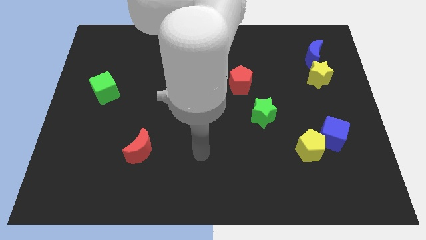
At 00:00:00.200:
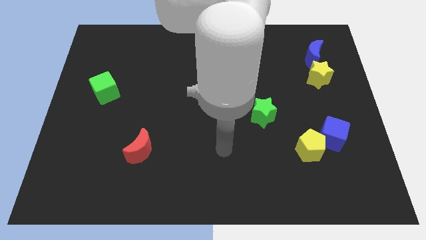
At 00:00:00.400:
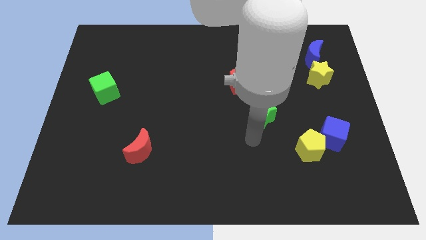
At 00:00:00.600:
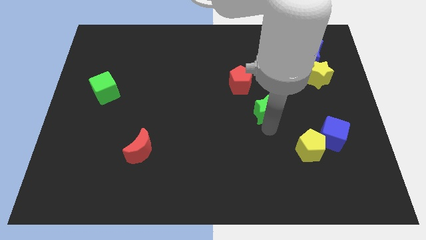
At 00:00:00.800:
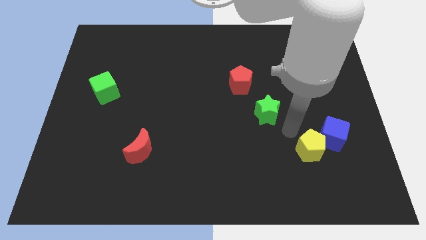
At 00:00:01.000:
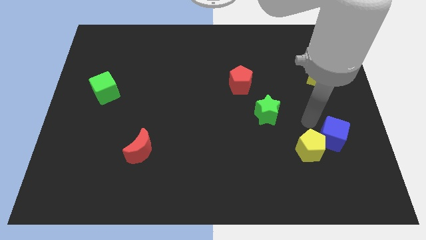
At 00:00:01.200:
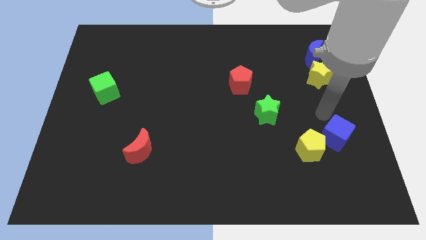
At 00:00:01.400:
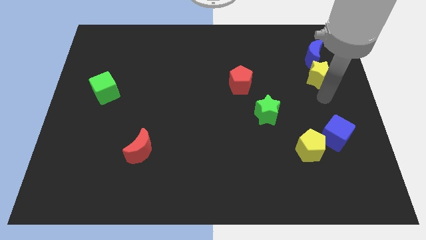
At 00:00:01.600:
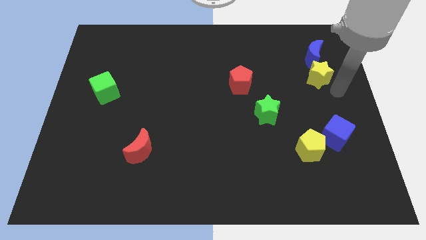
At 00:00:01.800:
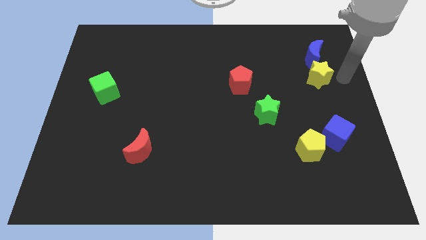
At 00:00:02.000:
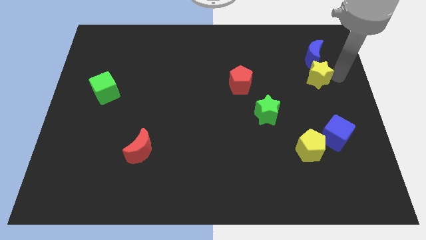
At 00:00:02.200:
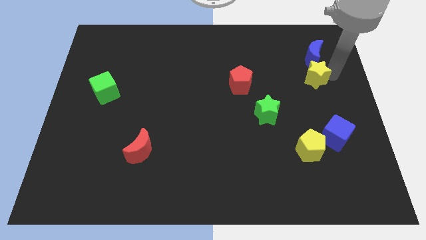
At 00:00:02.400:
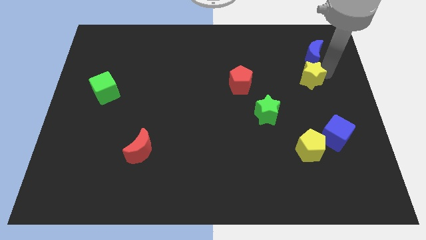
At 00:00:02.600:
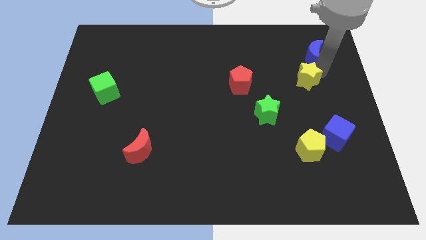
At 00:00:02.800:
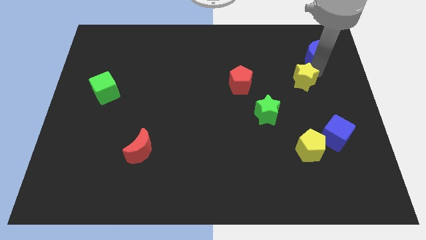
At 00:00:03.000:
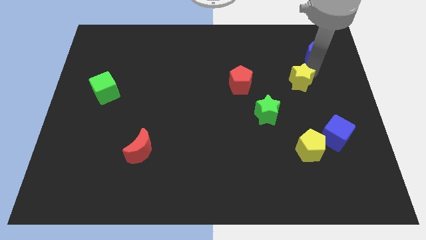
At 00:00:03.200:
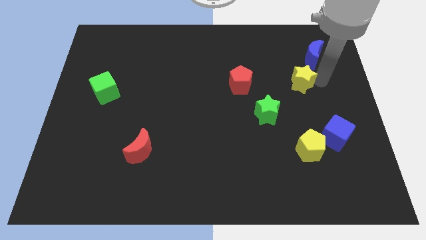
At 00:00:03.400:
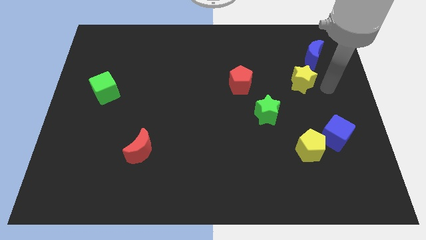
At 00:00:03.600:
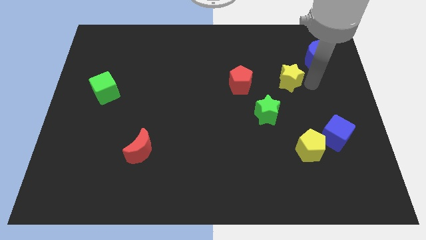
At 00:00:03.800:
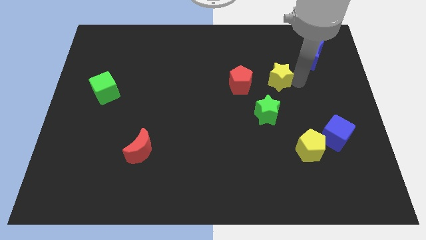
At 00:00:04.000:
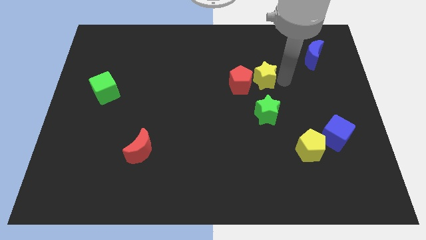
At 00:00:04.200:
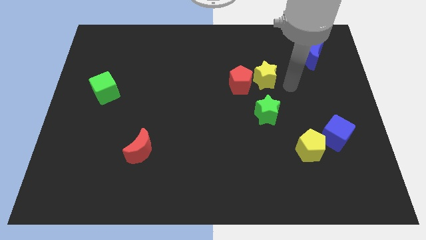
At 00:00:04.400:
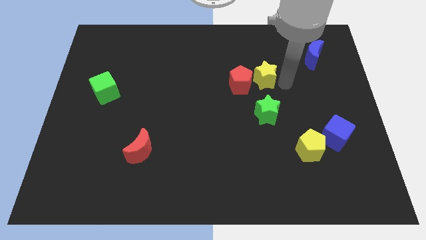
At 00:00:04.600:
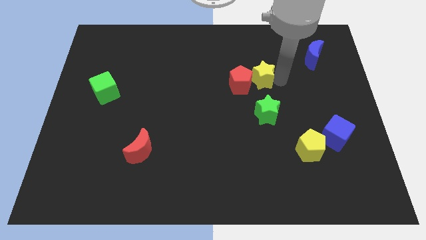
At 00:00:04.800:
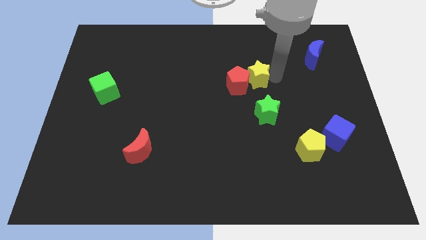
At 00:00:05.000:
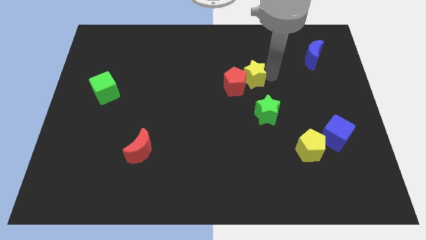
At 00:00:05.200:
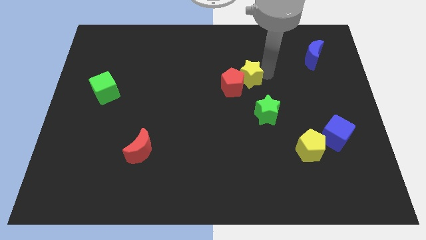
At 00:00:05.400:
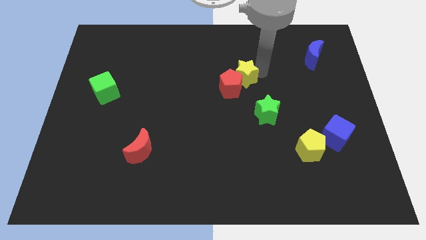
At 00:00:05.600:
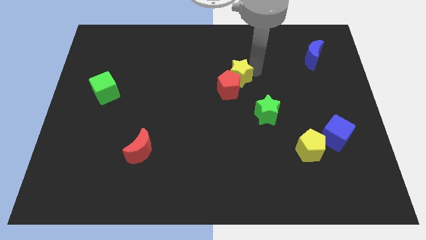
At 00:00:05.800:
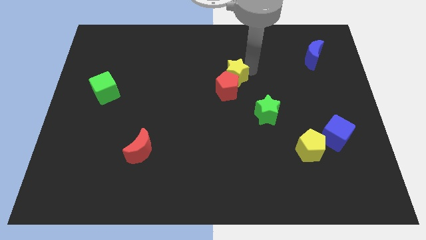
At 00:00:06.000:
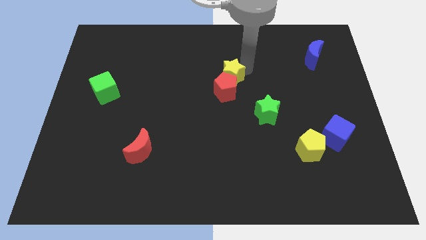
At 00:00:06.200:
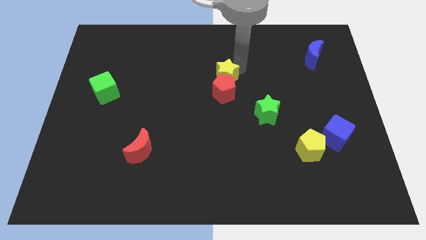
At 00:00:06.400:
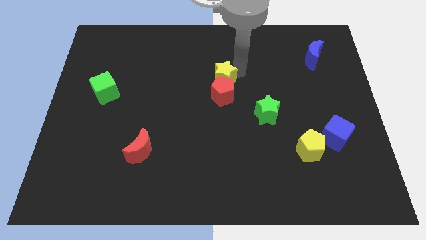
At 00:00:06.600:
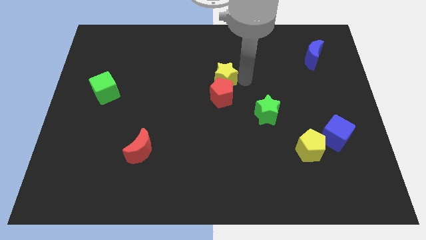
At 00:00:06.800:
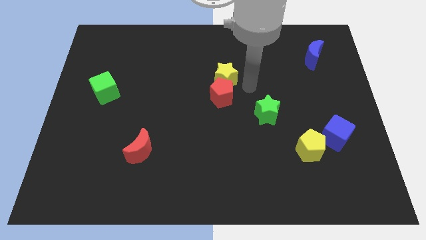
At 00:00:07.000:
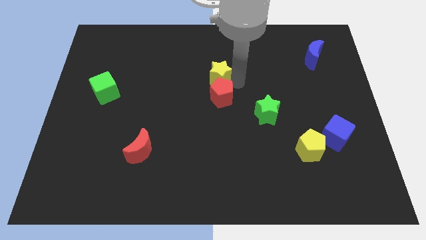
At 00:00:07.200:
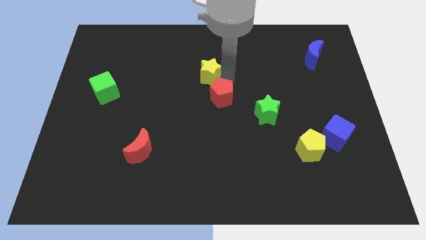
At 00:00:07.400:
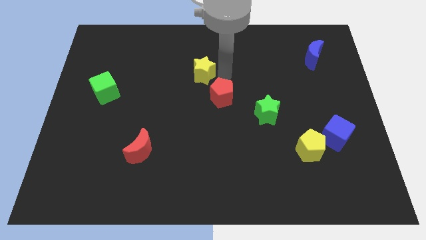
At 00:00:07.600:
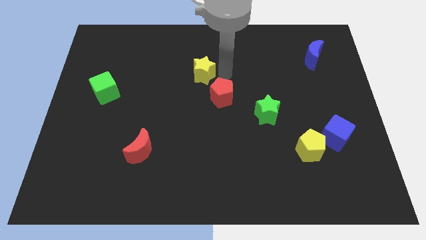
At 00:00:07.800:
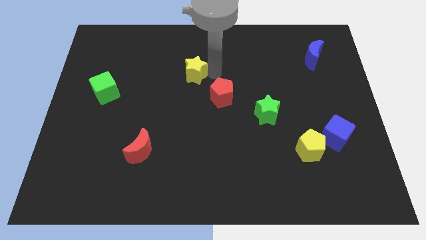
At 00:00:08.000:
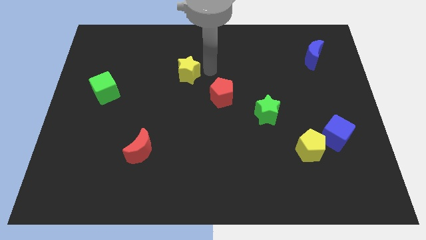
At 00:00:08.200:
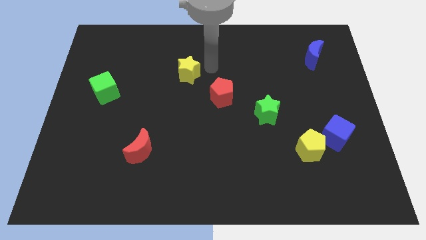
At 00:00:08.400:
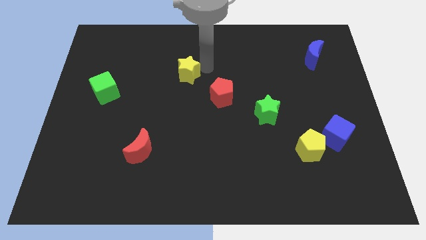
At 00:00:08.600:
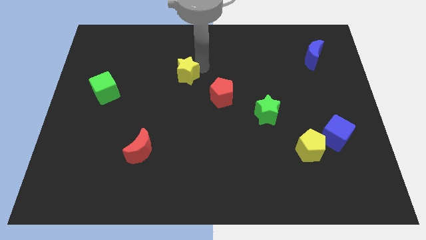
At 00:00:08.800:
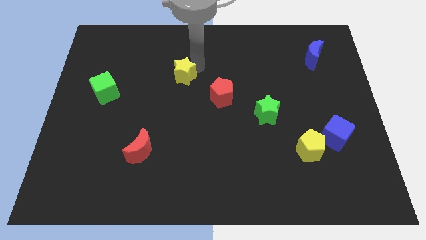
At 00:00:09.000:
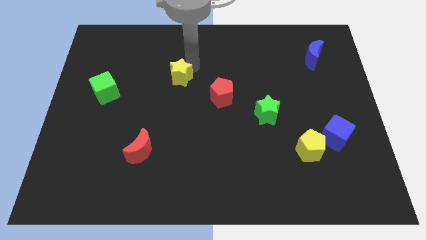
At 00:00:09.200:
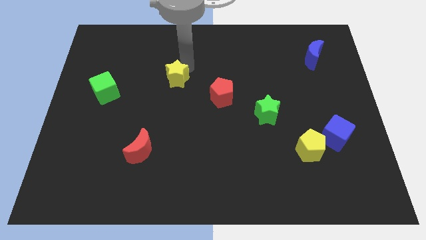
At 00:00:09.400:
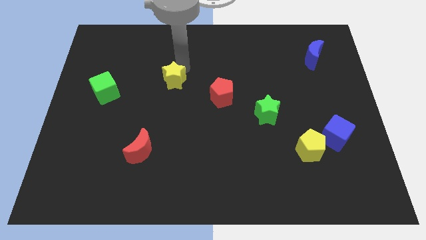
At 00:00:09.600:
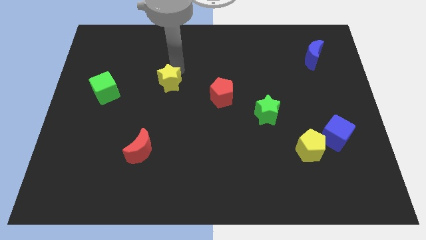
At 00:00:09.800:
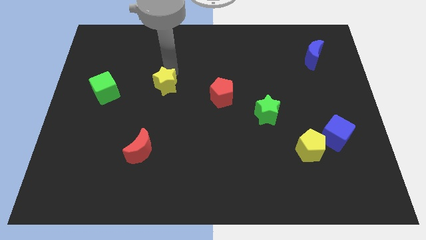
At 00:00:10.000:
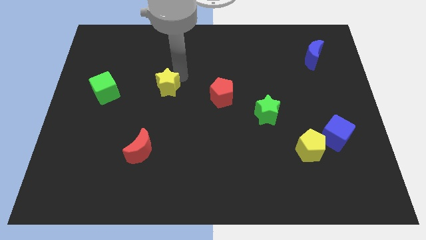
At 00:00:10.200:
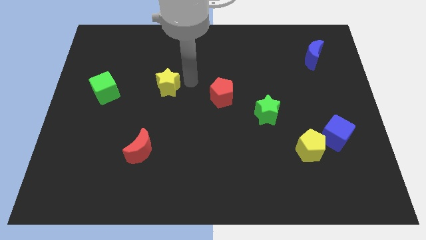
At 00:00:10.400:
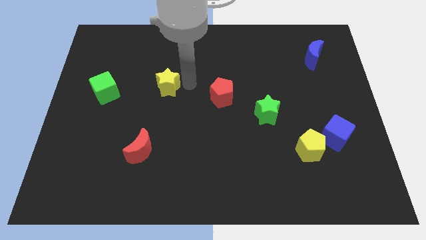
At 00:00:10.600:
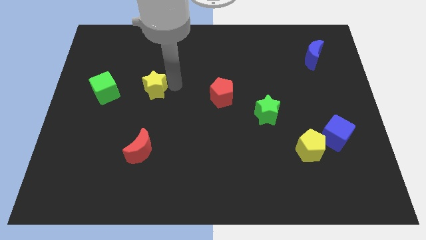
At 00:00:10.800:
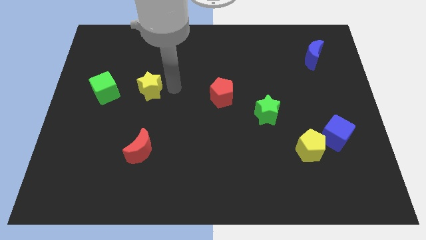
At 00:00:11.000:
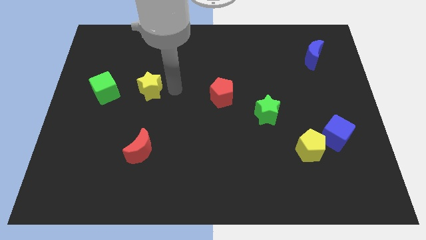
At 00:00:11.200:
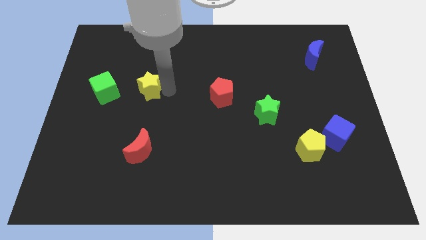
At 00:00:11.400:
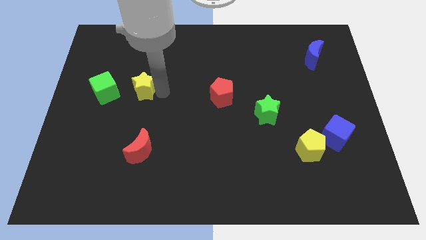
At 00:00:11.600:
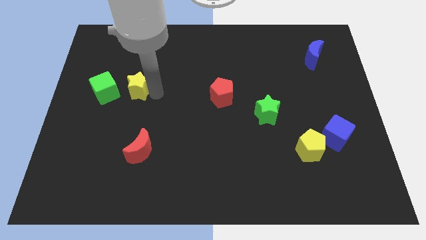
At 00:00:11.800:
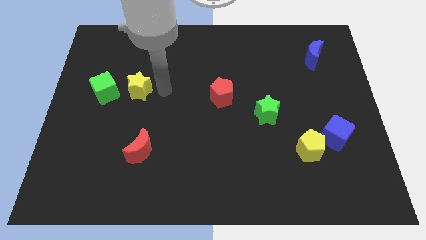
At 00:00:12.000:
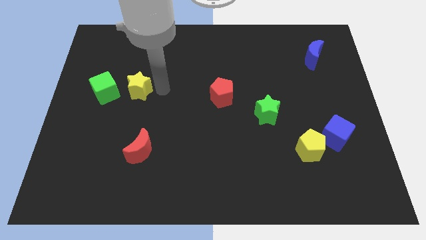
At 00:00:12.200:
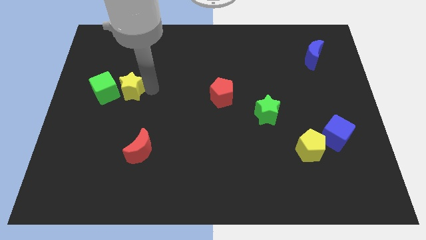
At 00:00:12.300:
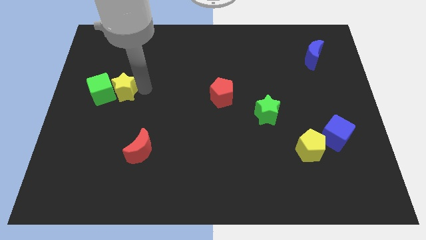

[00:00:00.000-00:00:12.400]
put the yellow star to the green cube
